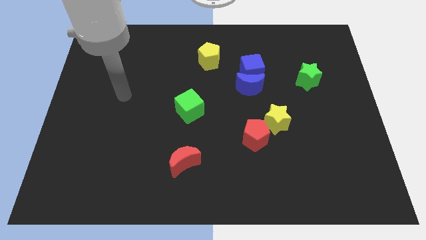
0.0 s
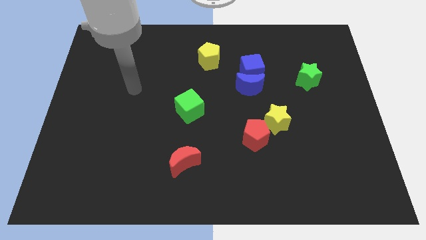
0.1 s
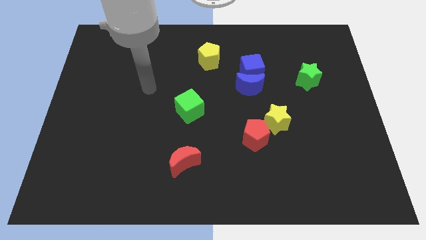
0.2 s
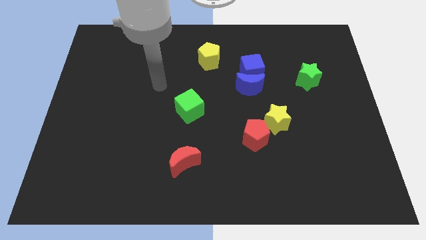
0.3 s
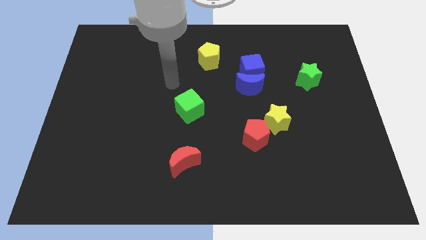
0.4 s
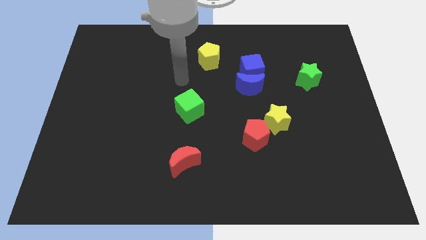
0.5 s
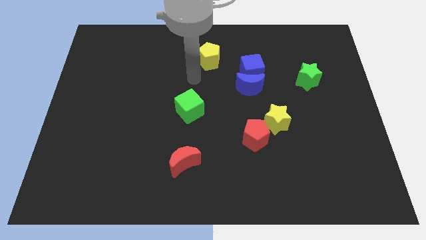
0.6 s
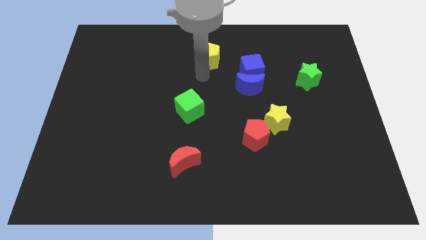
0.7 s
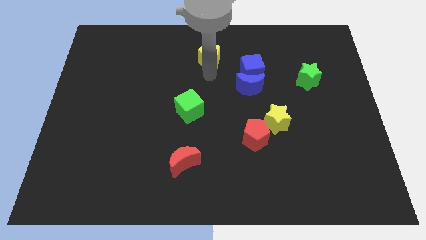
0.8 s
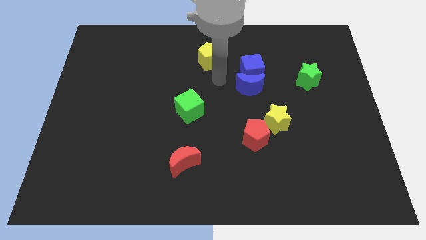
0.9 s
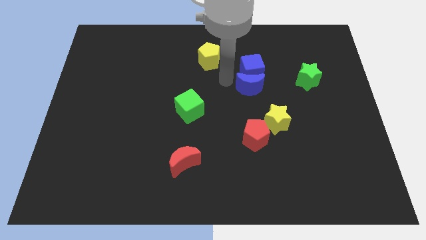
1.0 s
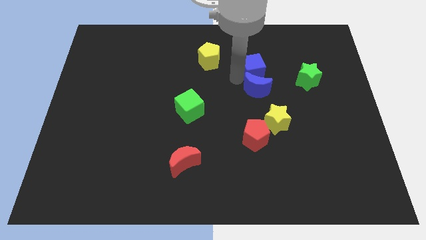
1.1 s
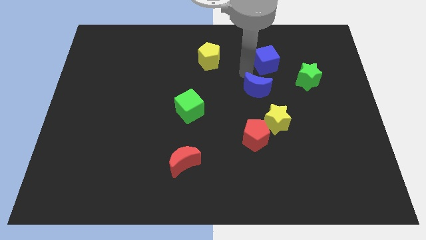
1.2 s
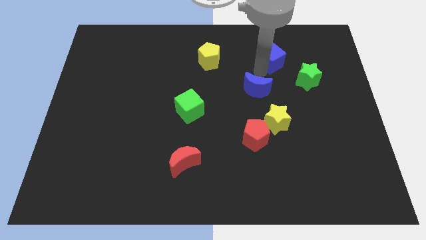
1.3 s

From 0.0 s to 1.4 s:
separate the blue moon from the blue cube

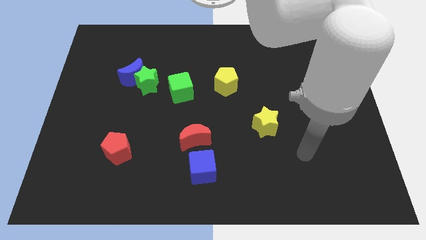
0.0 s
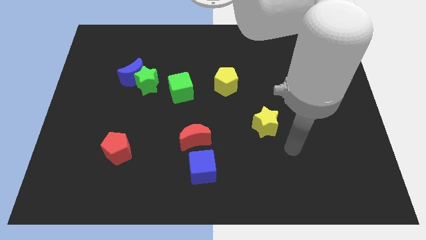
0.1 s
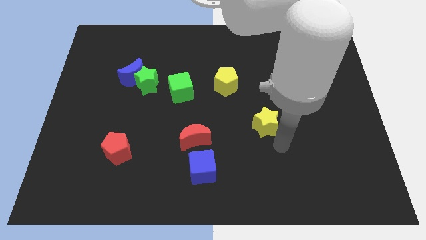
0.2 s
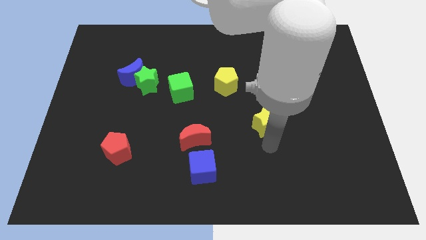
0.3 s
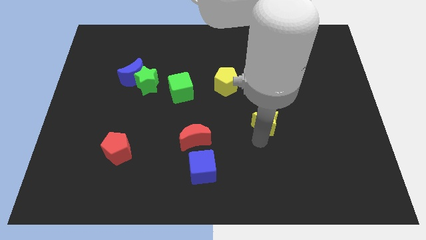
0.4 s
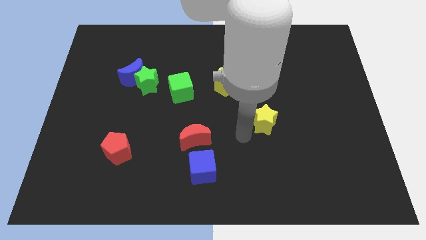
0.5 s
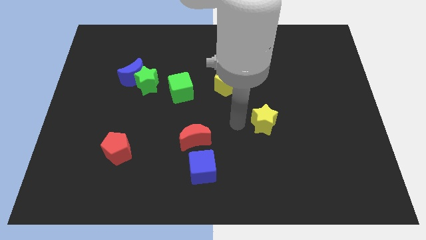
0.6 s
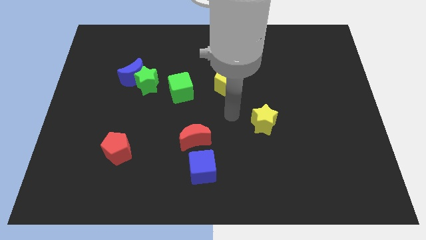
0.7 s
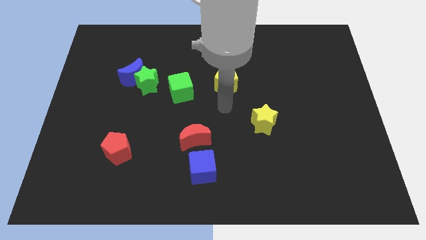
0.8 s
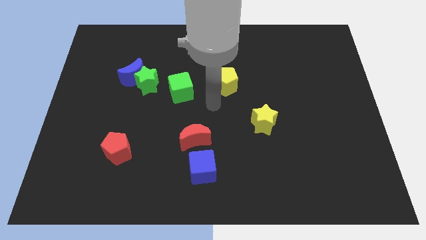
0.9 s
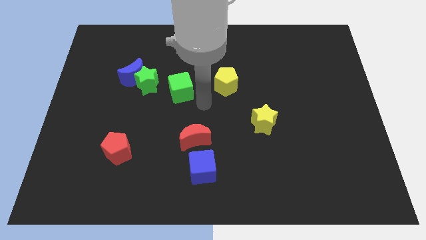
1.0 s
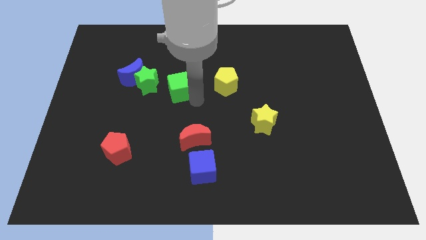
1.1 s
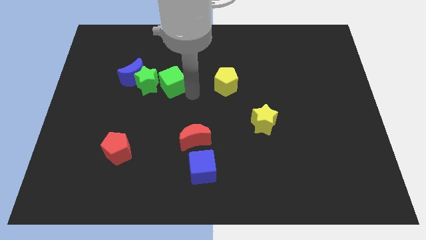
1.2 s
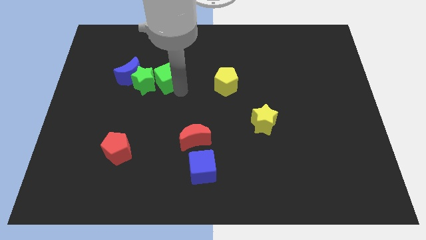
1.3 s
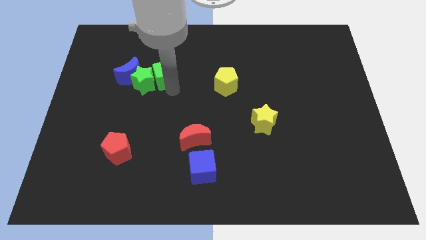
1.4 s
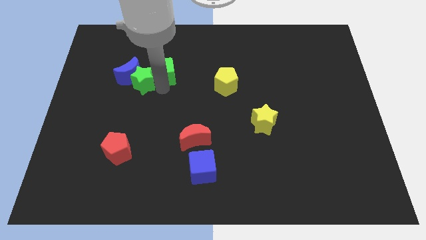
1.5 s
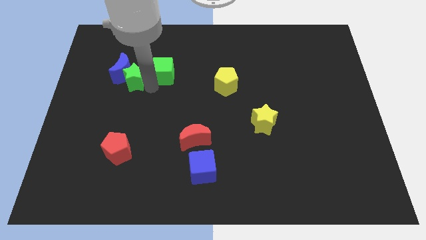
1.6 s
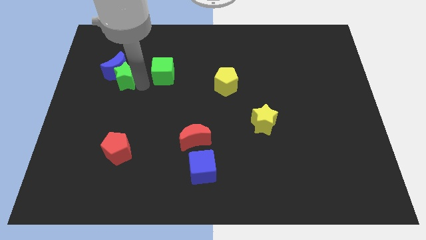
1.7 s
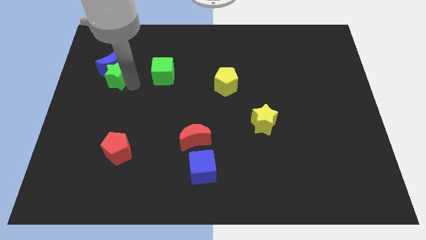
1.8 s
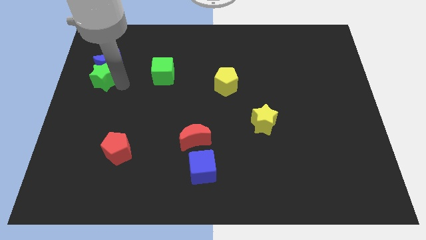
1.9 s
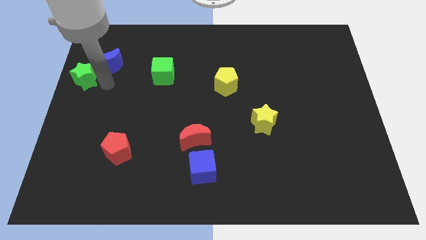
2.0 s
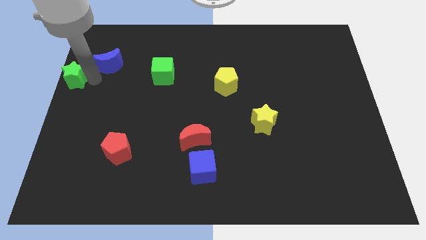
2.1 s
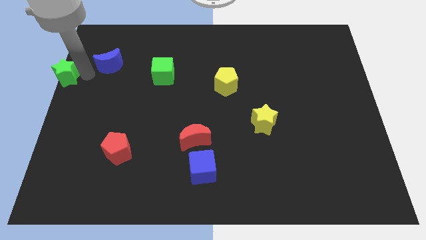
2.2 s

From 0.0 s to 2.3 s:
move the blue moon away from the green star

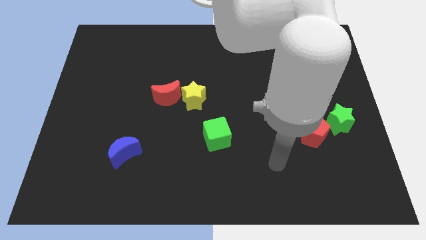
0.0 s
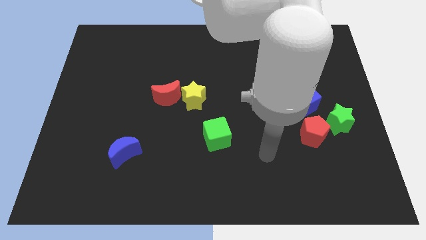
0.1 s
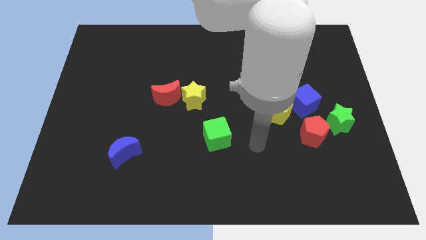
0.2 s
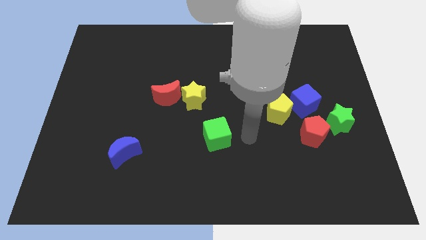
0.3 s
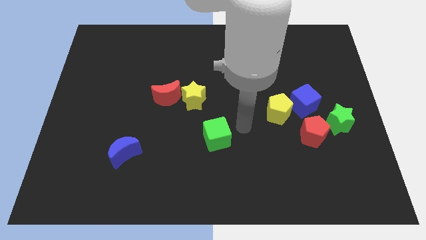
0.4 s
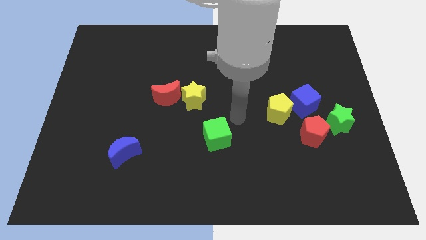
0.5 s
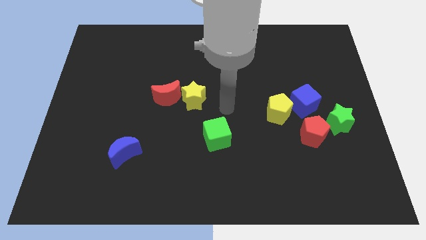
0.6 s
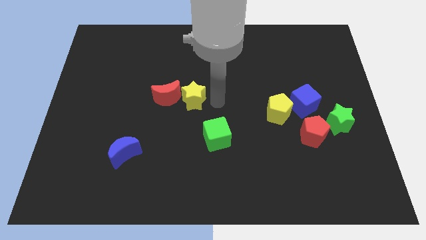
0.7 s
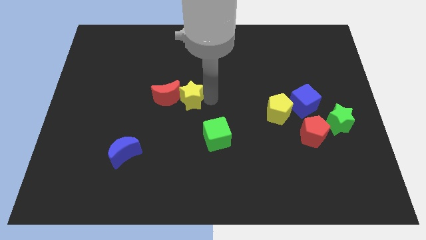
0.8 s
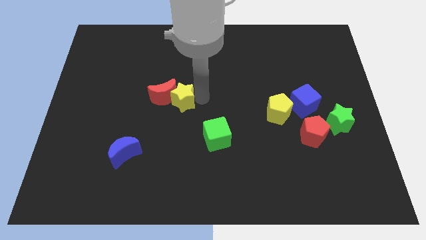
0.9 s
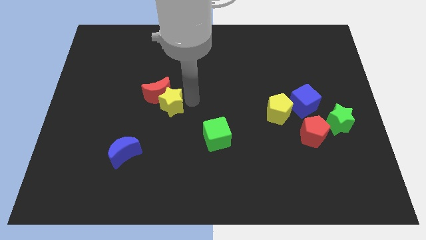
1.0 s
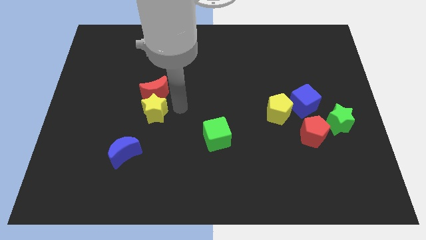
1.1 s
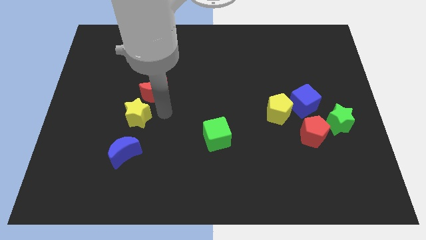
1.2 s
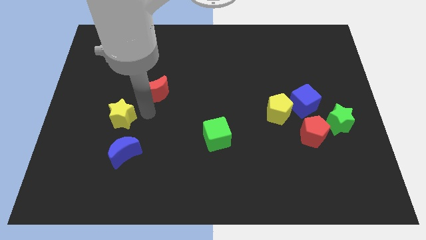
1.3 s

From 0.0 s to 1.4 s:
separate the red moon from the yellow star

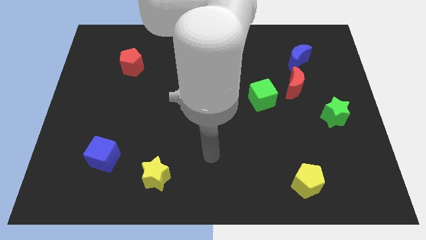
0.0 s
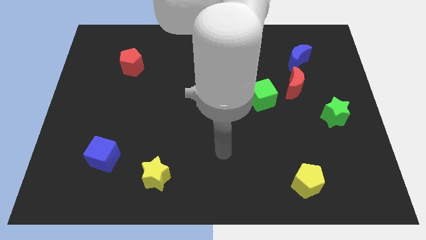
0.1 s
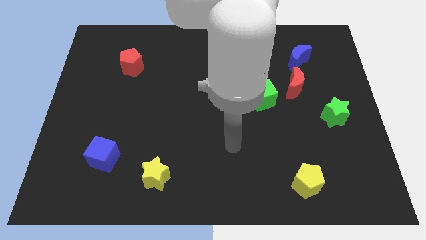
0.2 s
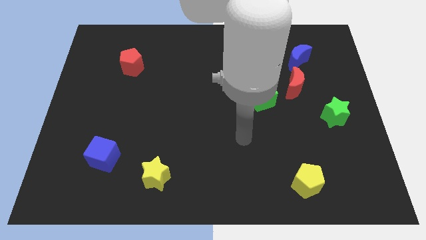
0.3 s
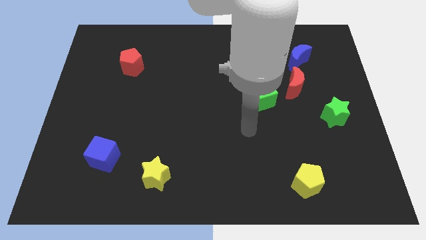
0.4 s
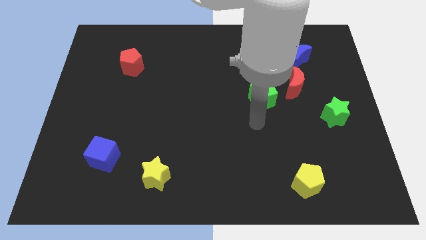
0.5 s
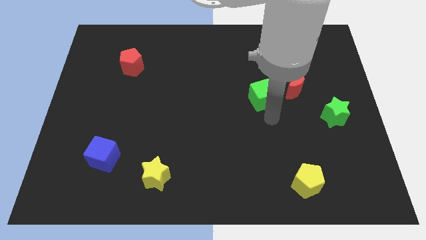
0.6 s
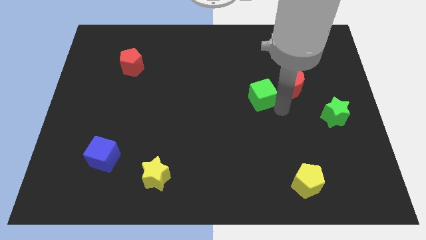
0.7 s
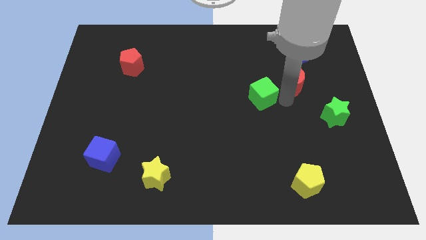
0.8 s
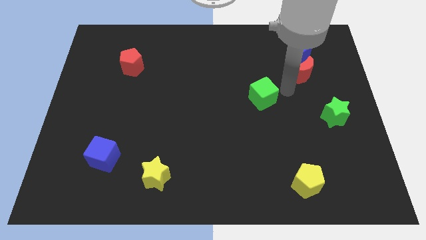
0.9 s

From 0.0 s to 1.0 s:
pull the green cube apart from the red moon

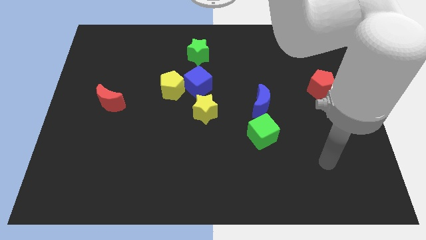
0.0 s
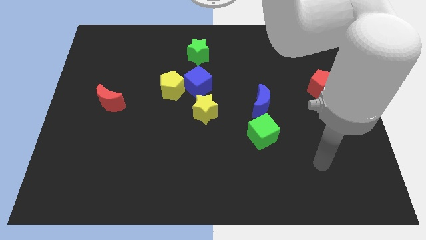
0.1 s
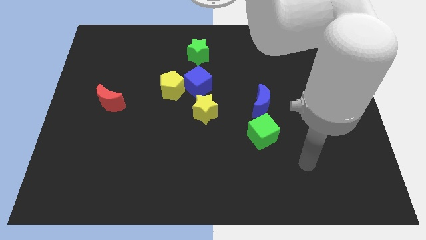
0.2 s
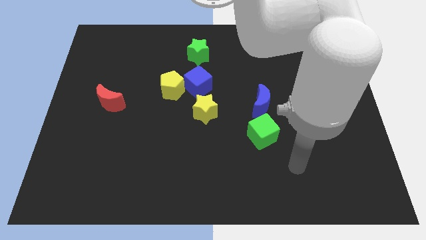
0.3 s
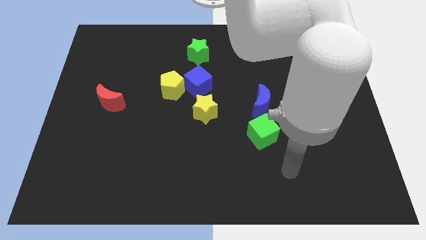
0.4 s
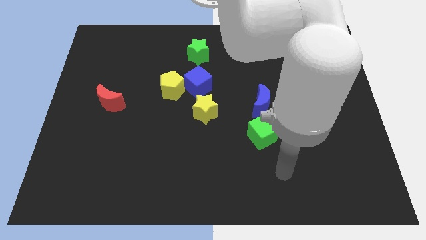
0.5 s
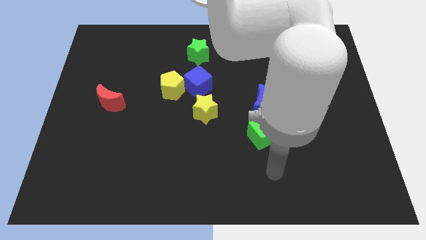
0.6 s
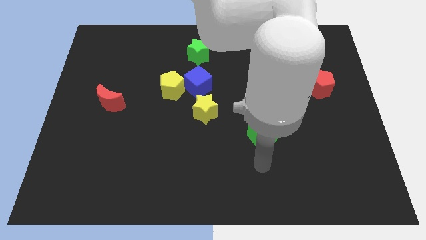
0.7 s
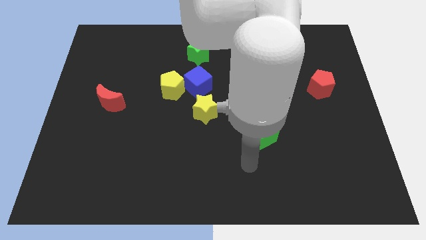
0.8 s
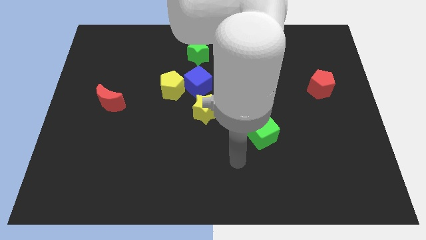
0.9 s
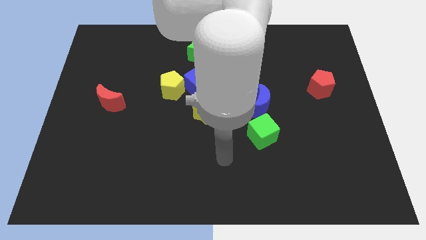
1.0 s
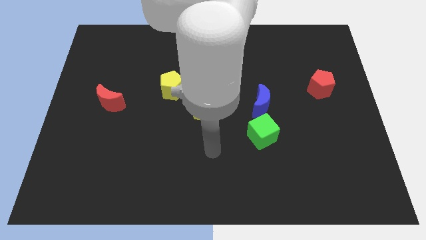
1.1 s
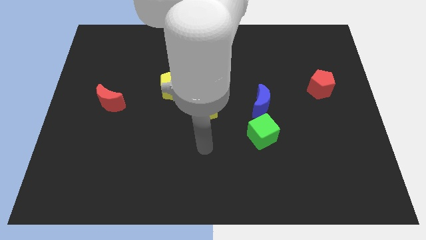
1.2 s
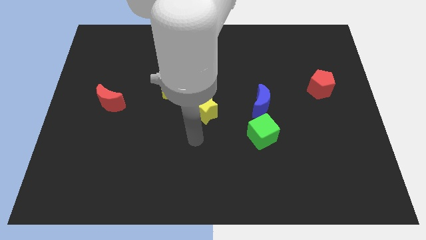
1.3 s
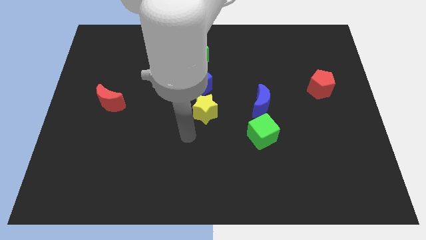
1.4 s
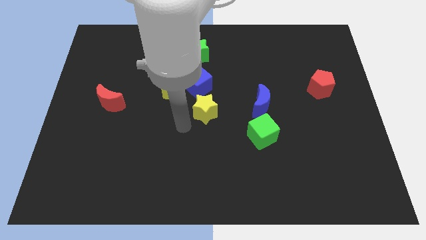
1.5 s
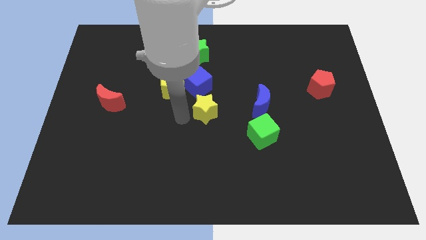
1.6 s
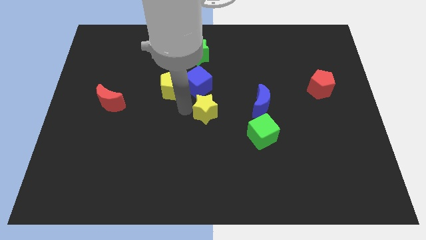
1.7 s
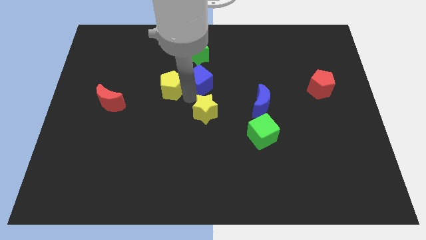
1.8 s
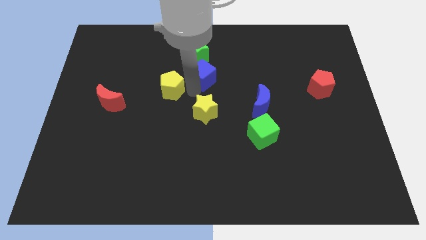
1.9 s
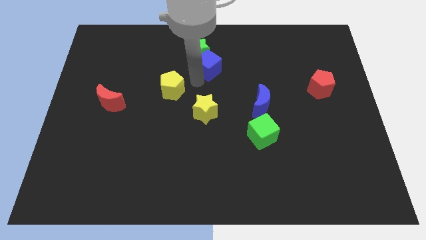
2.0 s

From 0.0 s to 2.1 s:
pull the yellow pentagon apart from the blue cube

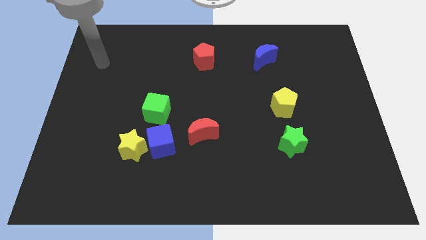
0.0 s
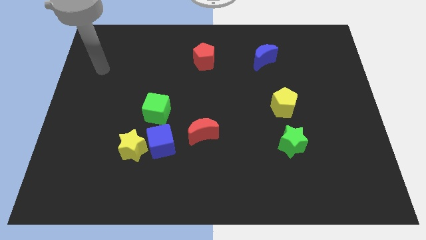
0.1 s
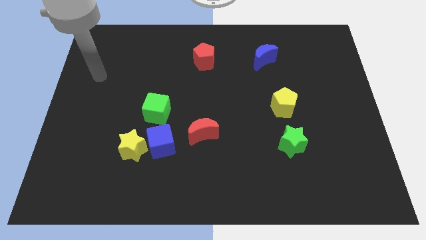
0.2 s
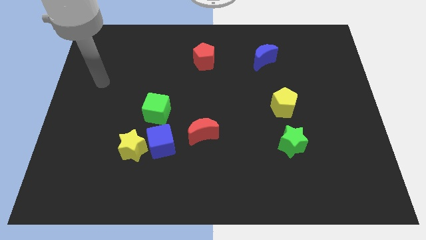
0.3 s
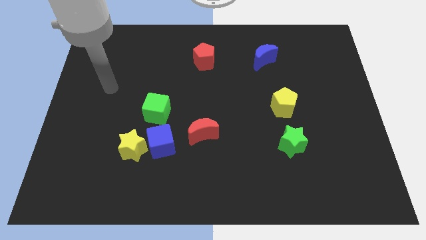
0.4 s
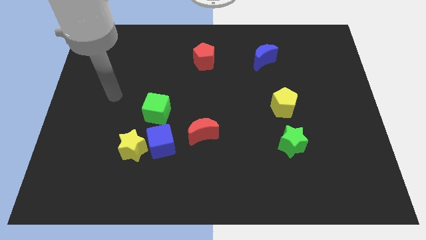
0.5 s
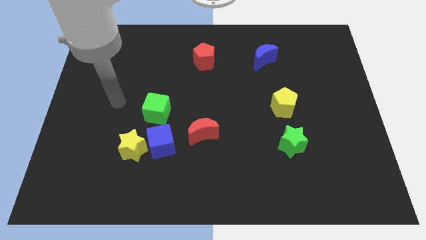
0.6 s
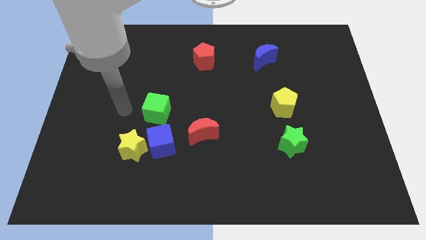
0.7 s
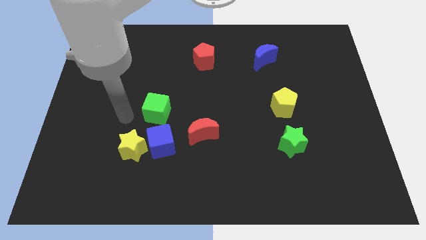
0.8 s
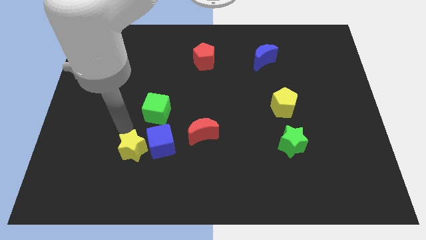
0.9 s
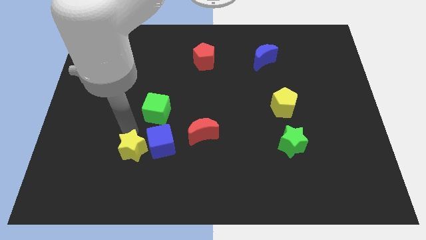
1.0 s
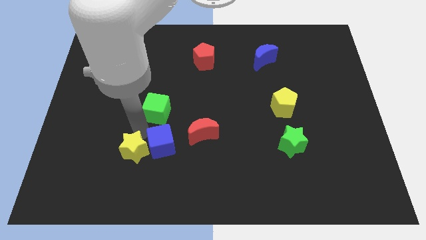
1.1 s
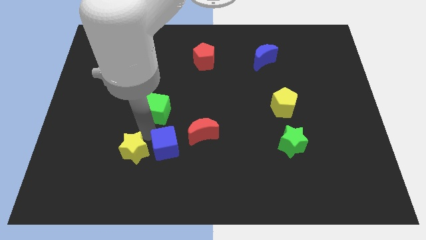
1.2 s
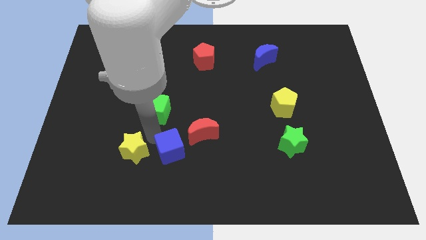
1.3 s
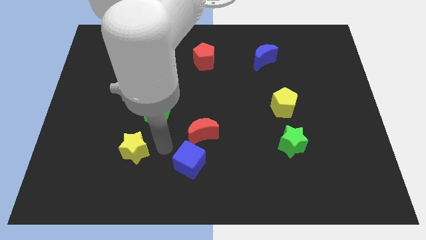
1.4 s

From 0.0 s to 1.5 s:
move the yellow star away from the blue cube
